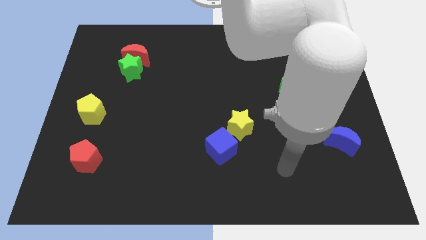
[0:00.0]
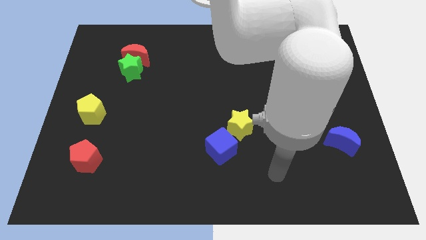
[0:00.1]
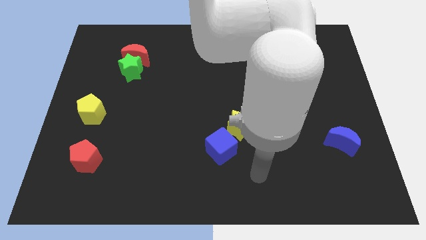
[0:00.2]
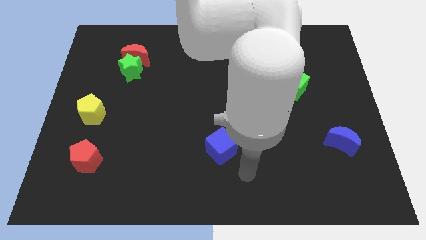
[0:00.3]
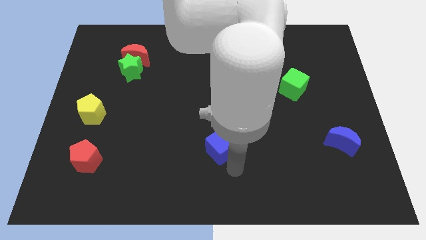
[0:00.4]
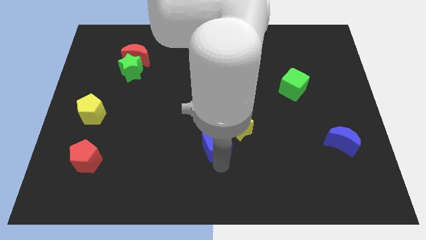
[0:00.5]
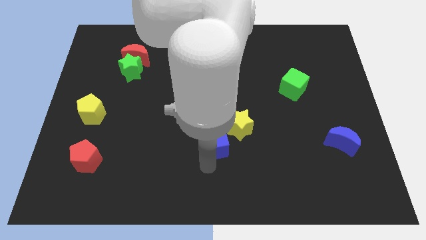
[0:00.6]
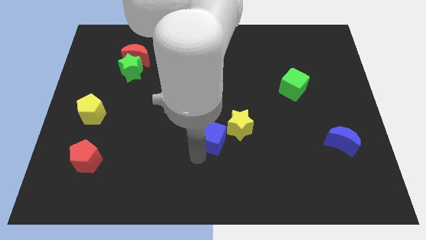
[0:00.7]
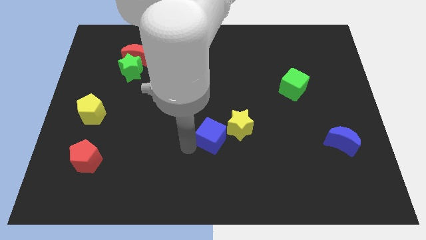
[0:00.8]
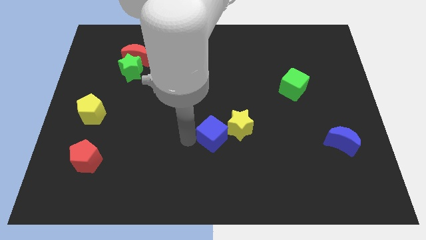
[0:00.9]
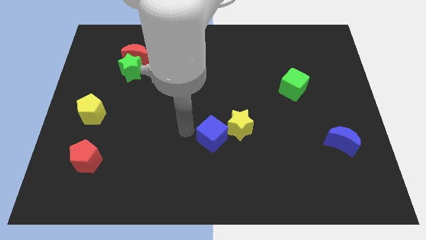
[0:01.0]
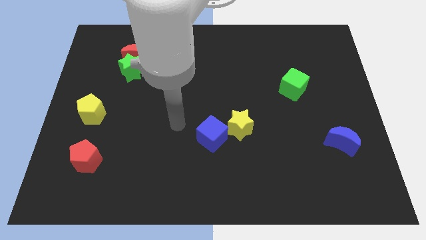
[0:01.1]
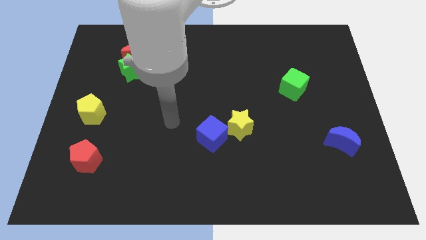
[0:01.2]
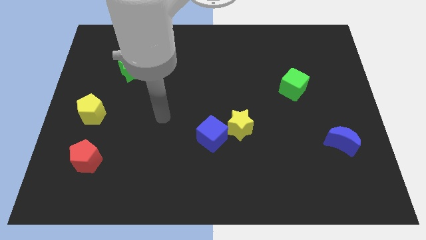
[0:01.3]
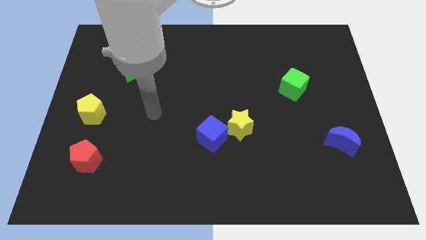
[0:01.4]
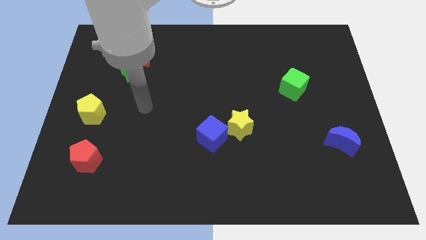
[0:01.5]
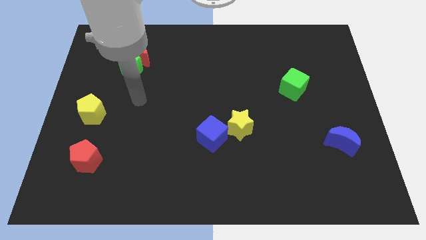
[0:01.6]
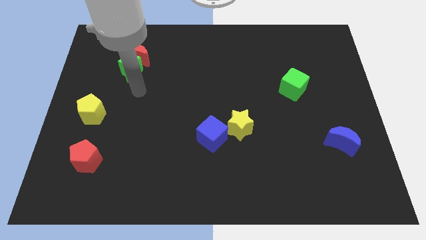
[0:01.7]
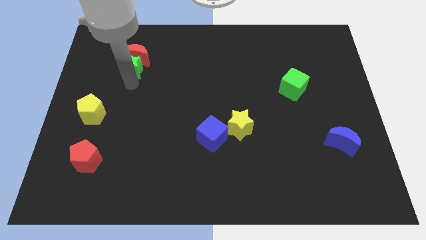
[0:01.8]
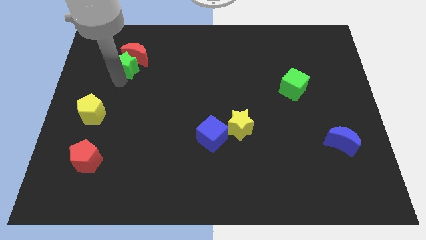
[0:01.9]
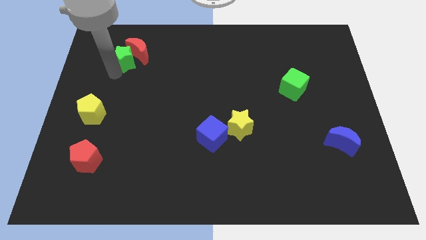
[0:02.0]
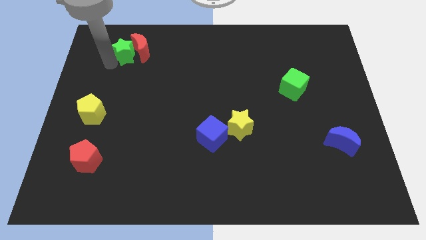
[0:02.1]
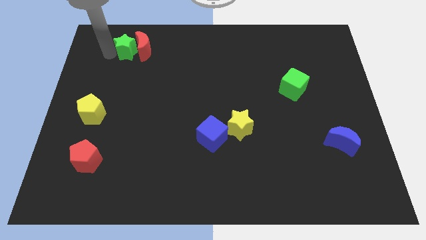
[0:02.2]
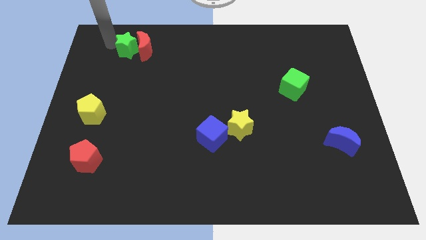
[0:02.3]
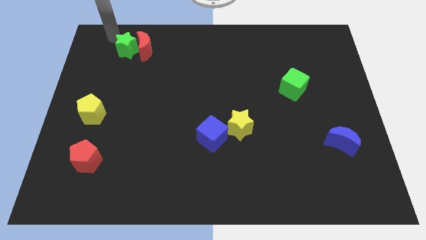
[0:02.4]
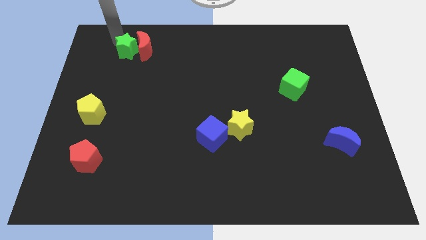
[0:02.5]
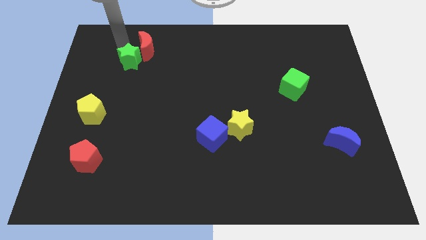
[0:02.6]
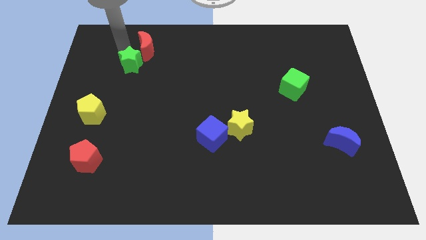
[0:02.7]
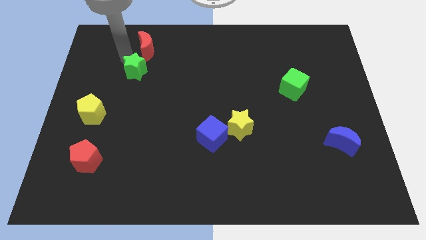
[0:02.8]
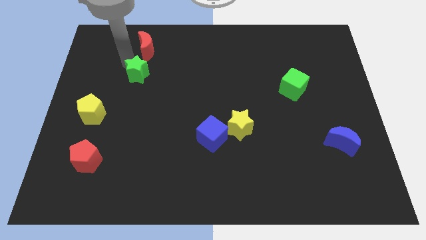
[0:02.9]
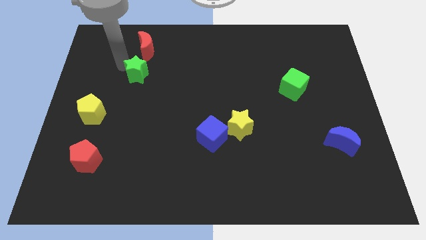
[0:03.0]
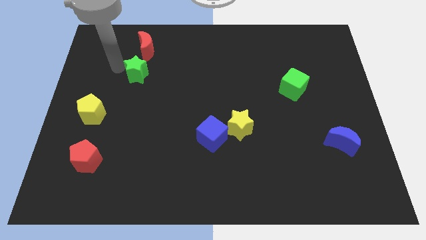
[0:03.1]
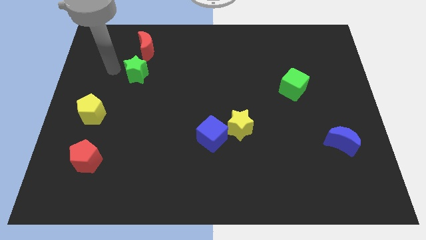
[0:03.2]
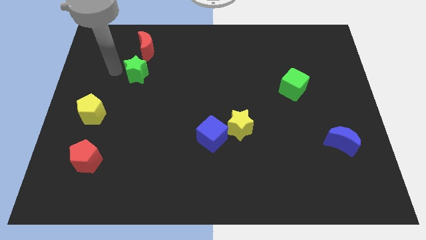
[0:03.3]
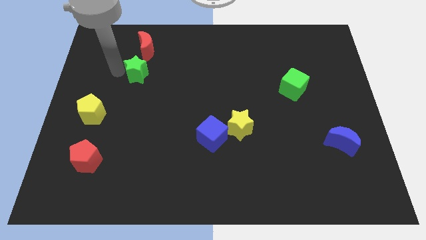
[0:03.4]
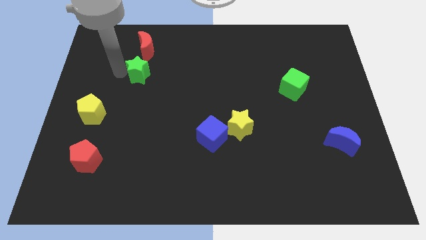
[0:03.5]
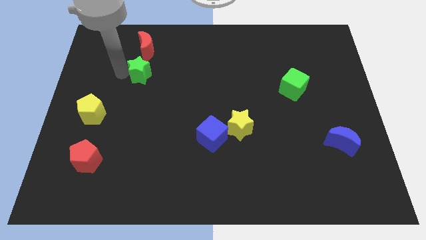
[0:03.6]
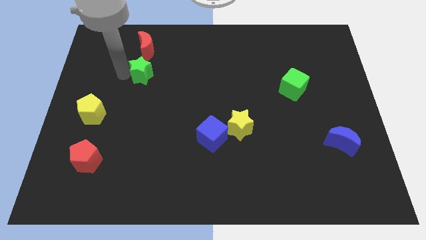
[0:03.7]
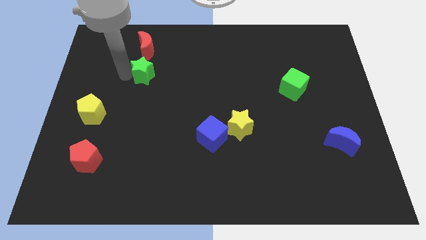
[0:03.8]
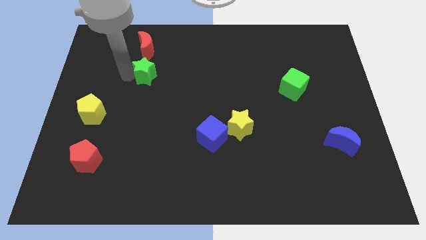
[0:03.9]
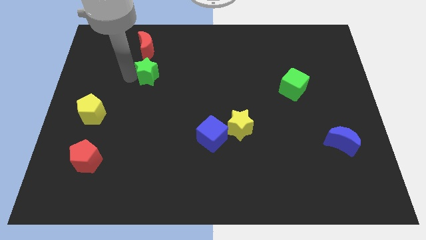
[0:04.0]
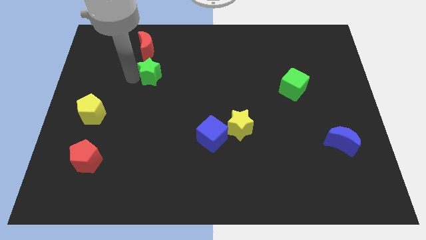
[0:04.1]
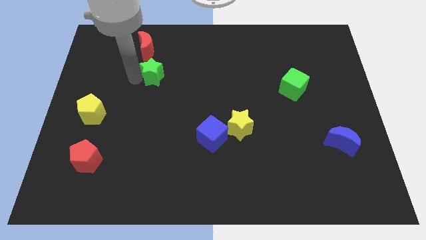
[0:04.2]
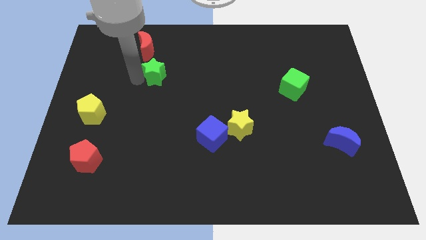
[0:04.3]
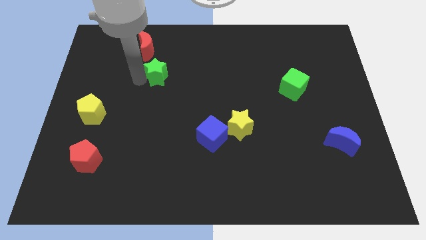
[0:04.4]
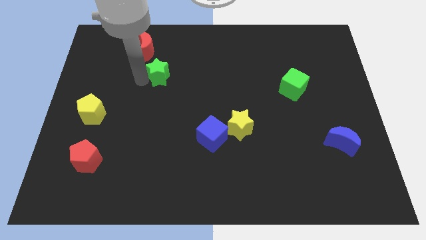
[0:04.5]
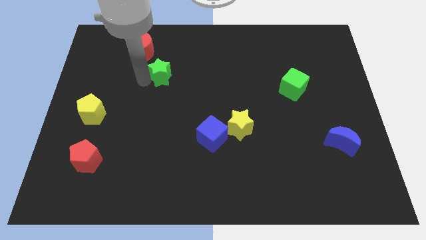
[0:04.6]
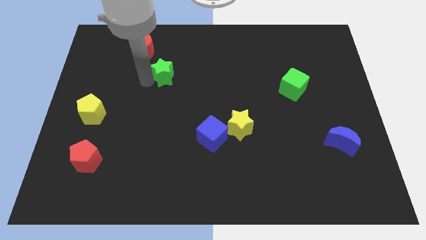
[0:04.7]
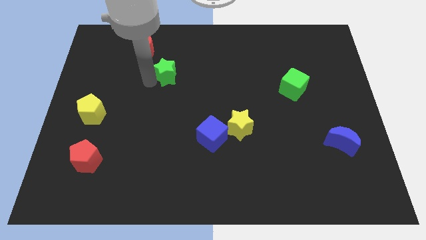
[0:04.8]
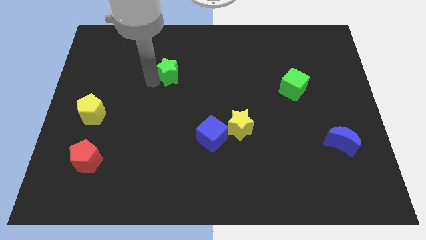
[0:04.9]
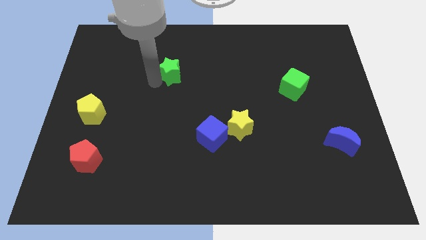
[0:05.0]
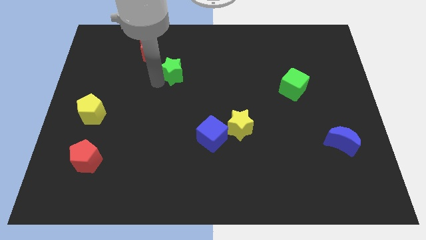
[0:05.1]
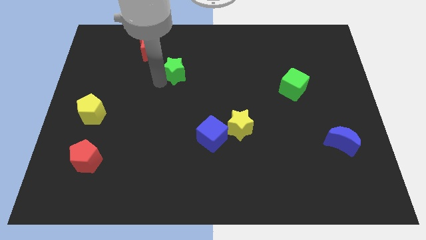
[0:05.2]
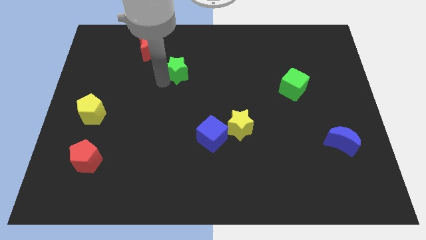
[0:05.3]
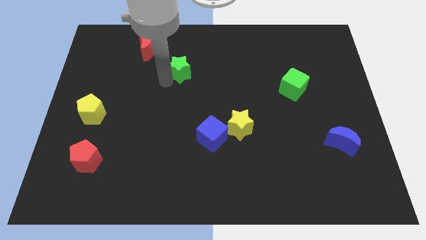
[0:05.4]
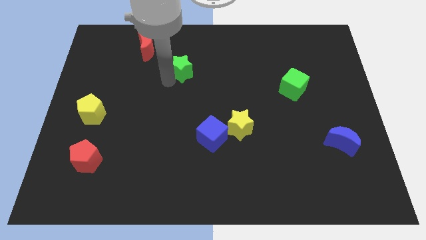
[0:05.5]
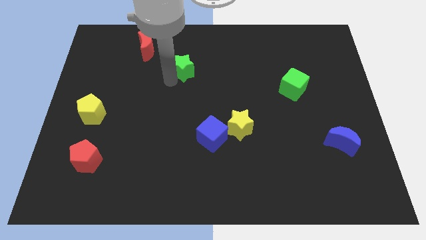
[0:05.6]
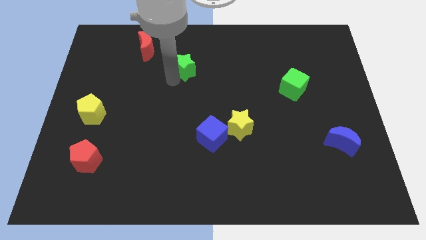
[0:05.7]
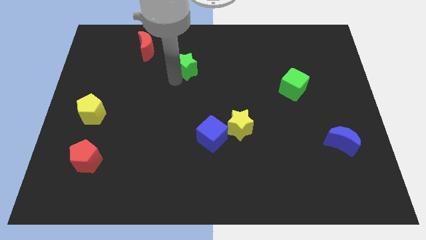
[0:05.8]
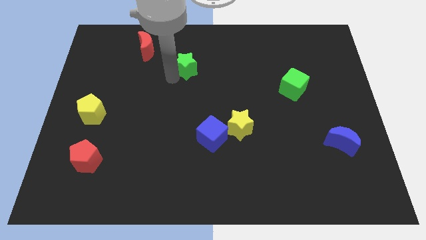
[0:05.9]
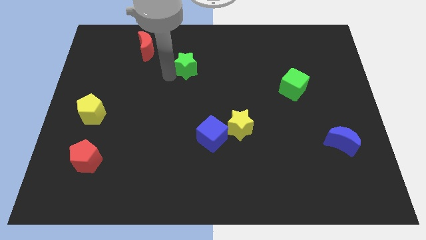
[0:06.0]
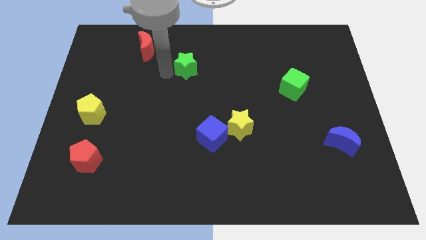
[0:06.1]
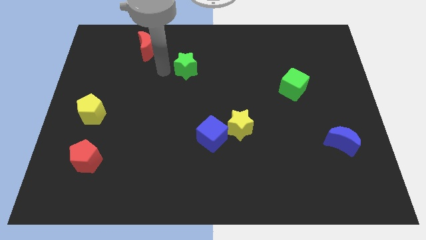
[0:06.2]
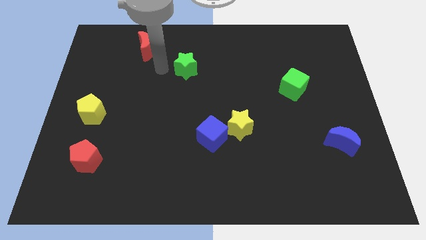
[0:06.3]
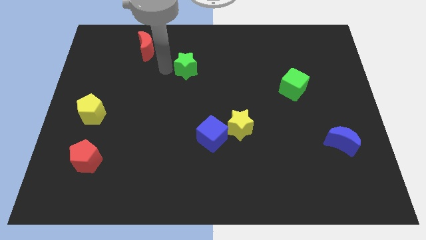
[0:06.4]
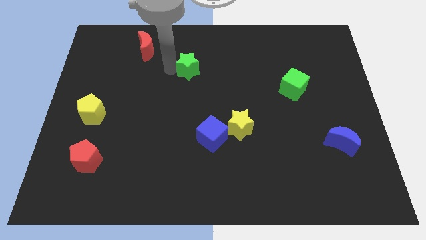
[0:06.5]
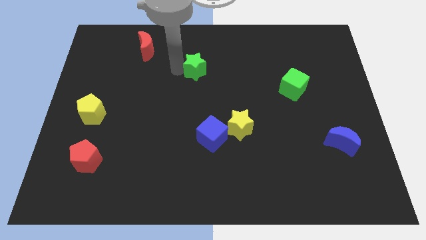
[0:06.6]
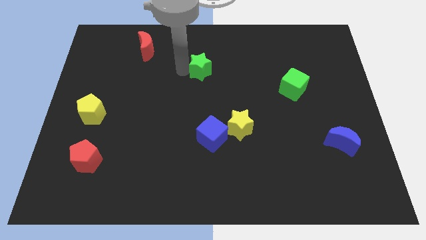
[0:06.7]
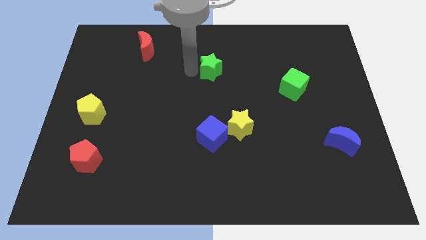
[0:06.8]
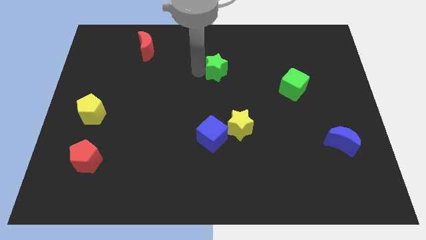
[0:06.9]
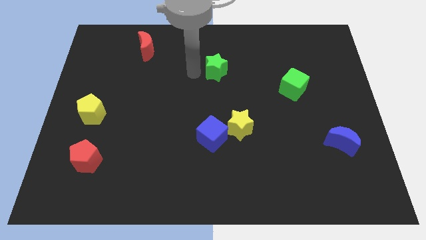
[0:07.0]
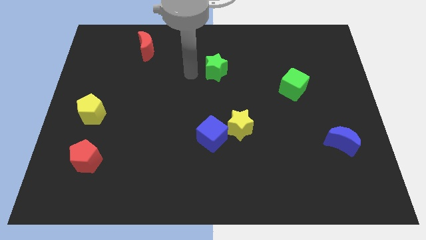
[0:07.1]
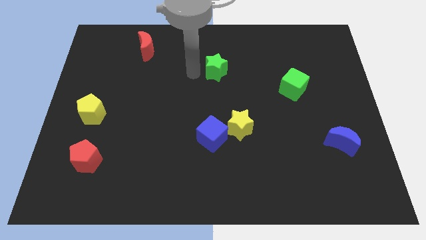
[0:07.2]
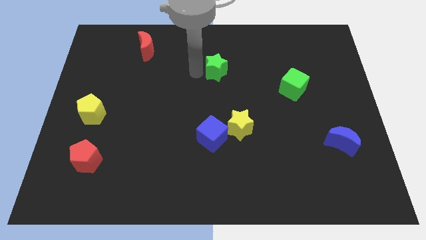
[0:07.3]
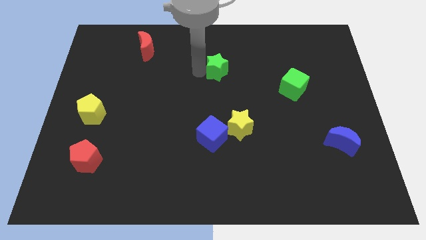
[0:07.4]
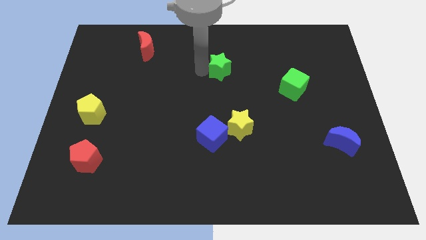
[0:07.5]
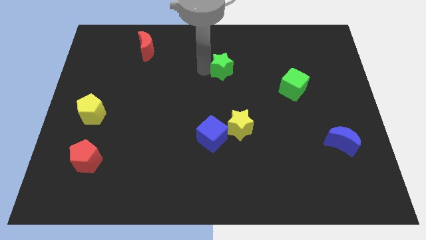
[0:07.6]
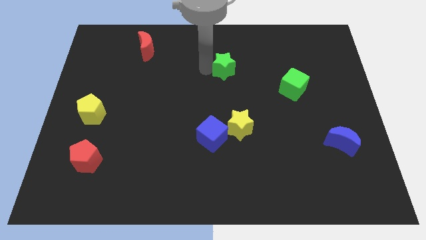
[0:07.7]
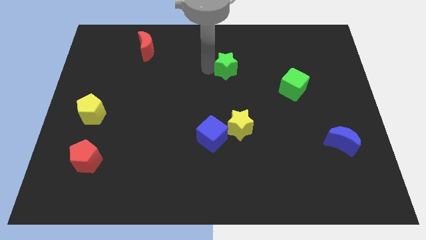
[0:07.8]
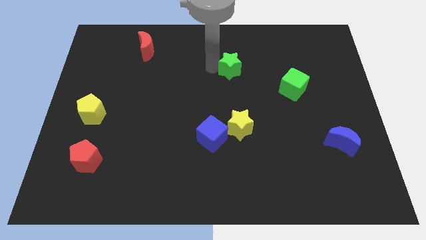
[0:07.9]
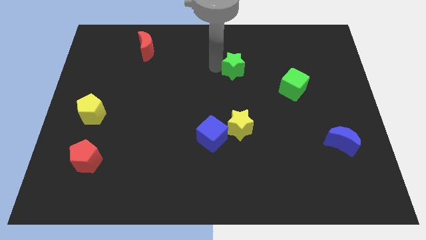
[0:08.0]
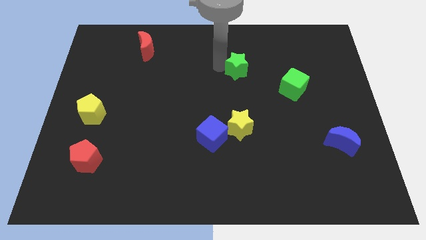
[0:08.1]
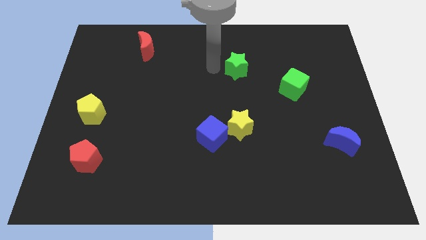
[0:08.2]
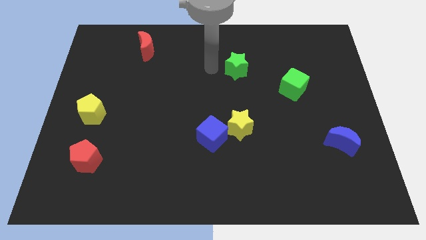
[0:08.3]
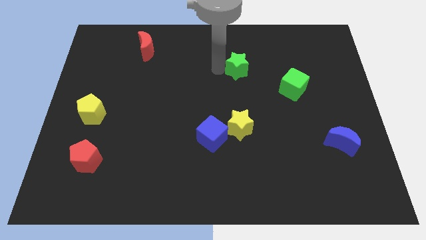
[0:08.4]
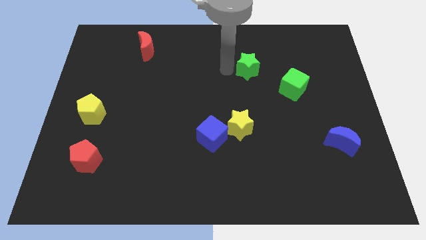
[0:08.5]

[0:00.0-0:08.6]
push the green star to the top left of the green cube
